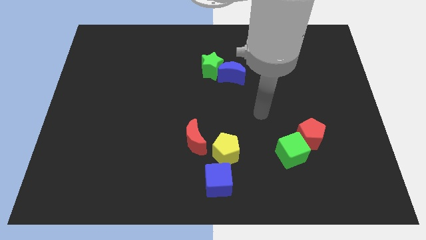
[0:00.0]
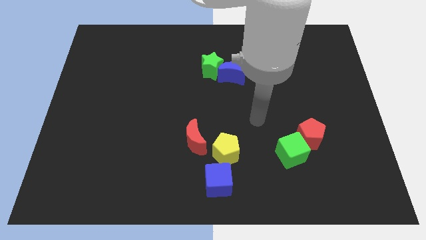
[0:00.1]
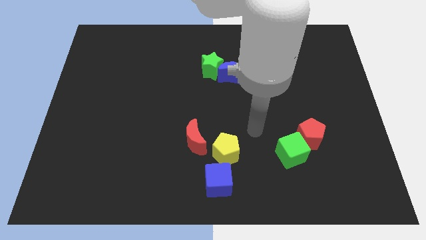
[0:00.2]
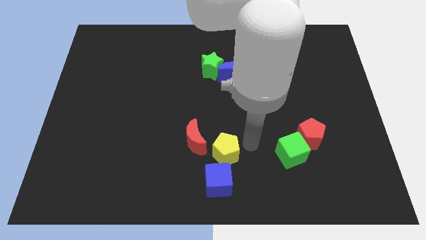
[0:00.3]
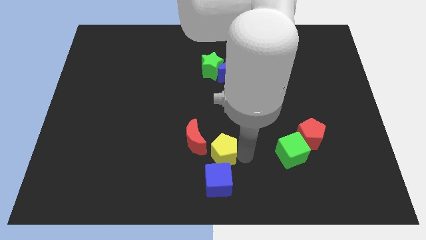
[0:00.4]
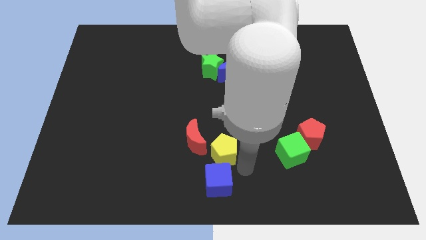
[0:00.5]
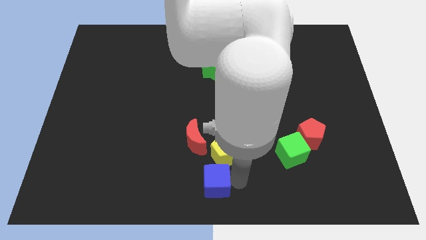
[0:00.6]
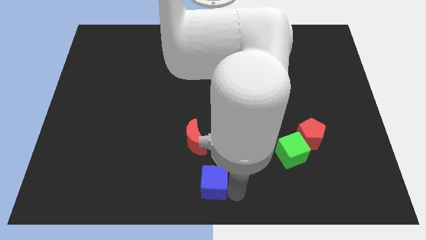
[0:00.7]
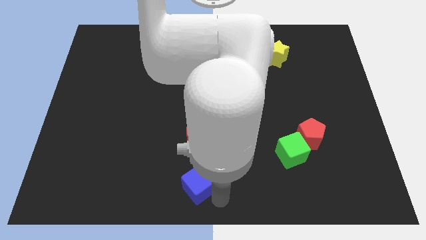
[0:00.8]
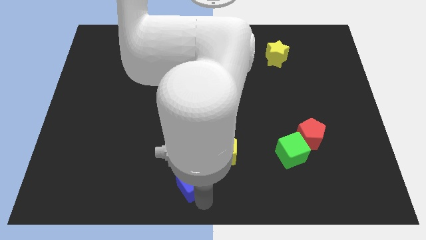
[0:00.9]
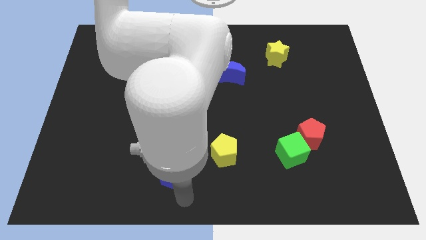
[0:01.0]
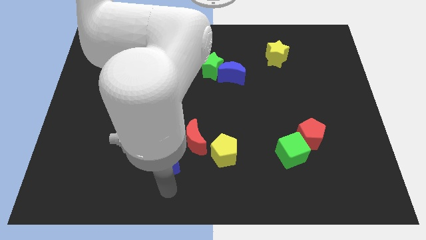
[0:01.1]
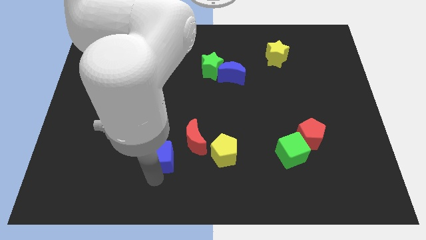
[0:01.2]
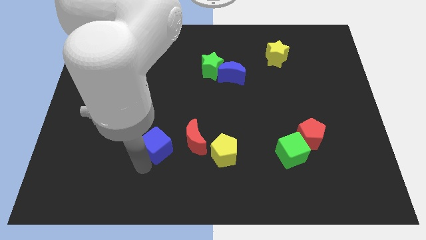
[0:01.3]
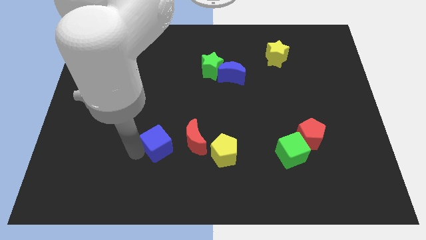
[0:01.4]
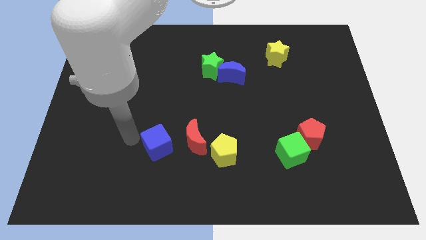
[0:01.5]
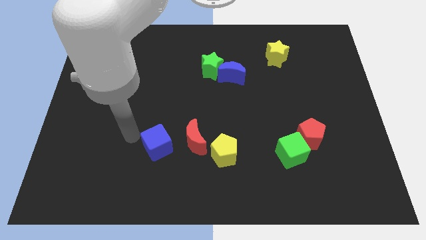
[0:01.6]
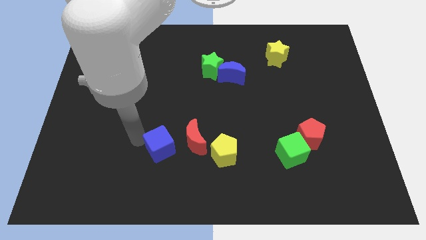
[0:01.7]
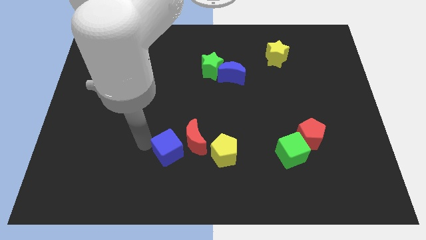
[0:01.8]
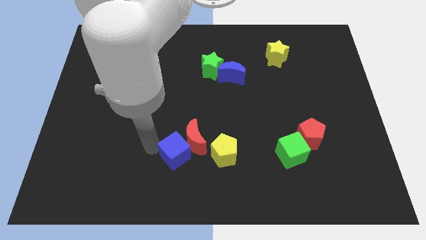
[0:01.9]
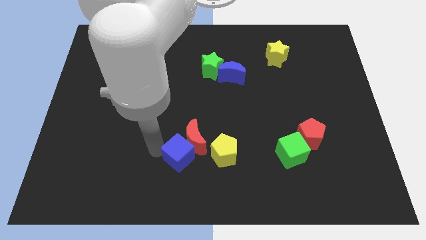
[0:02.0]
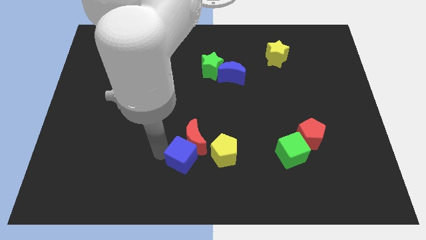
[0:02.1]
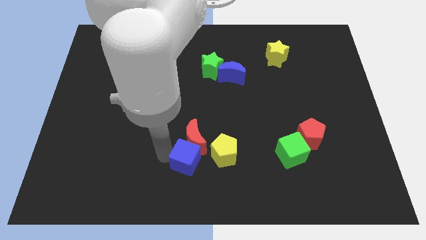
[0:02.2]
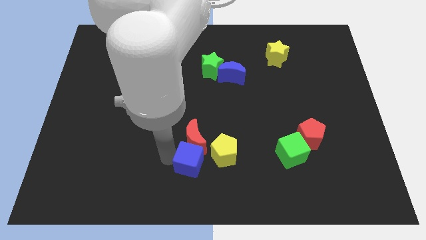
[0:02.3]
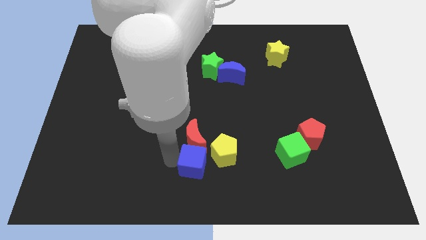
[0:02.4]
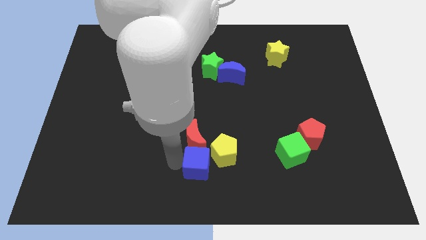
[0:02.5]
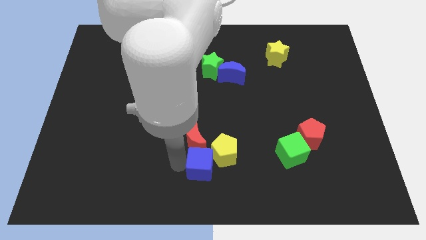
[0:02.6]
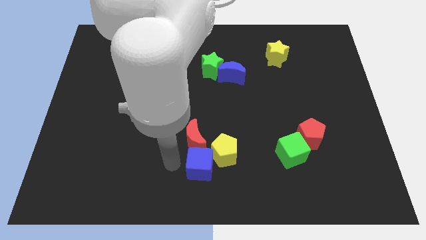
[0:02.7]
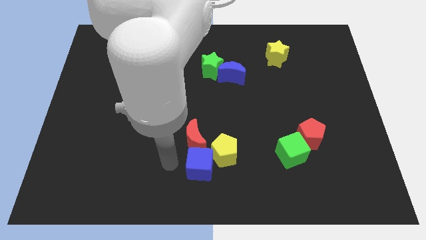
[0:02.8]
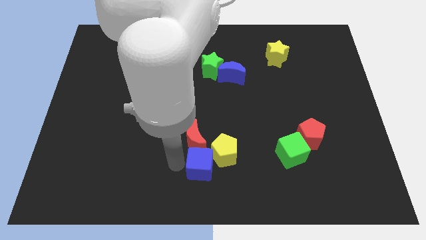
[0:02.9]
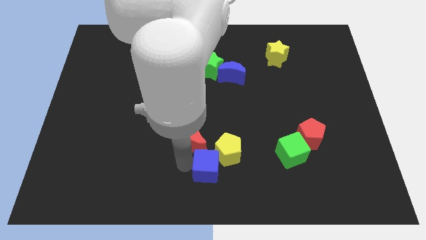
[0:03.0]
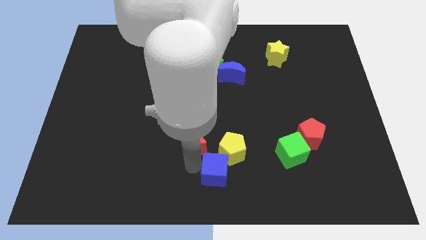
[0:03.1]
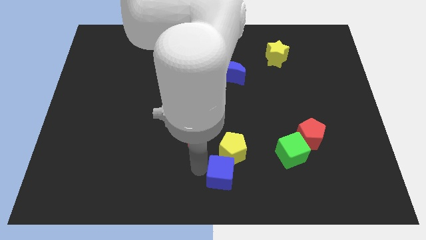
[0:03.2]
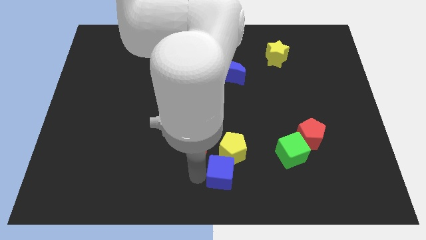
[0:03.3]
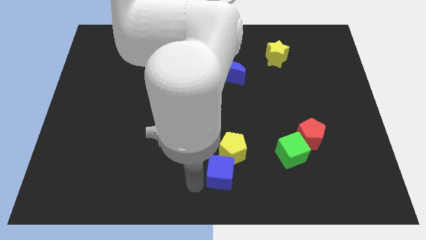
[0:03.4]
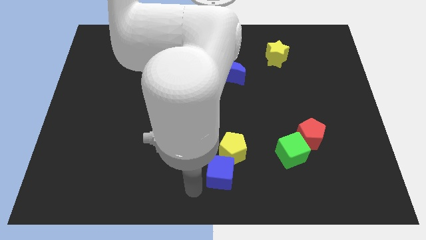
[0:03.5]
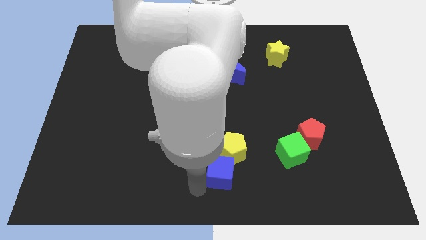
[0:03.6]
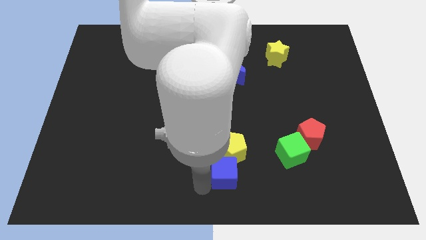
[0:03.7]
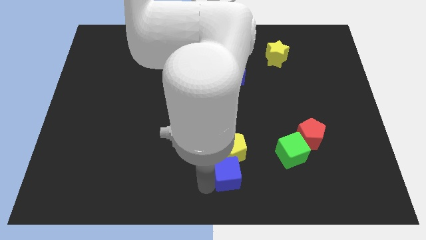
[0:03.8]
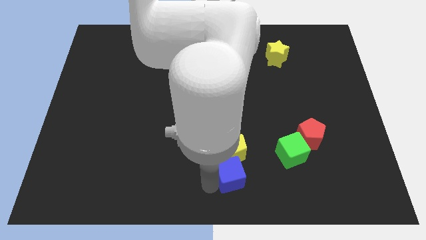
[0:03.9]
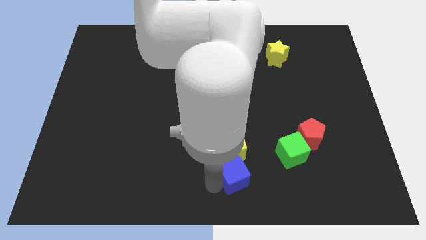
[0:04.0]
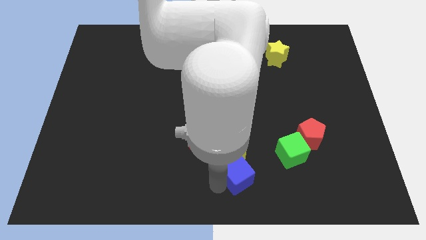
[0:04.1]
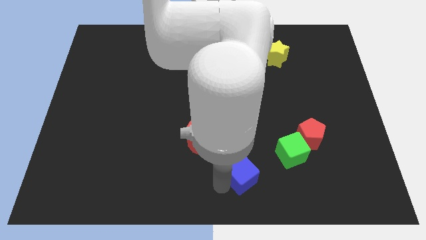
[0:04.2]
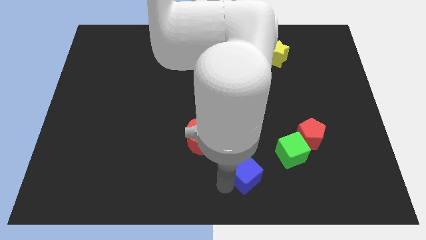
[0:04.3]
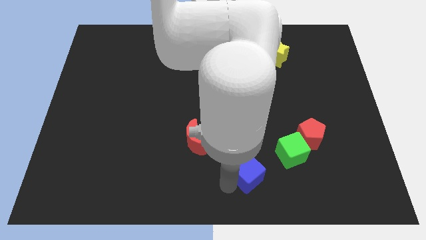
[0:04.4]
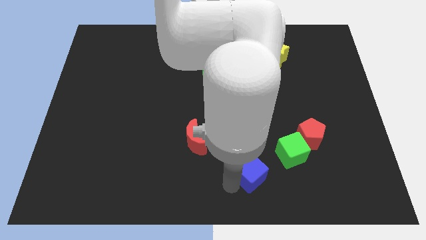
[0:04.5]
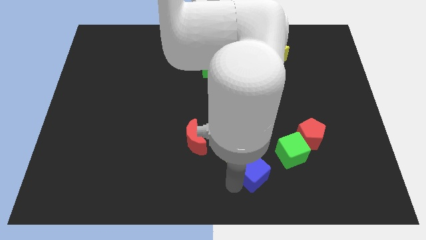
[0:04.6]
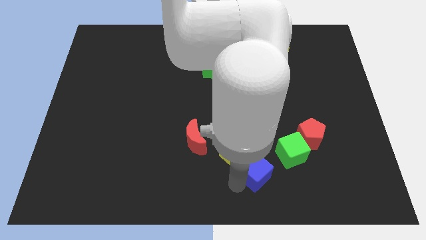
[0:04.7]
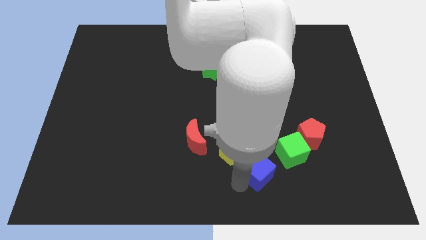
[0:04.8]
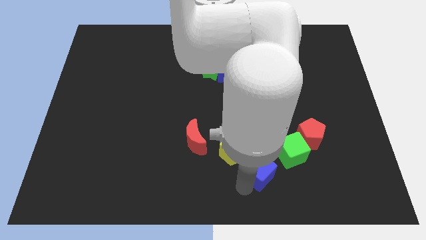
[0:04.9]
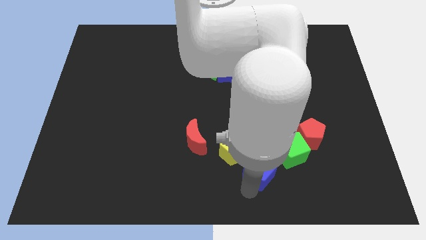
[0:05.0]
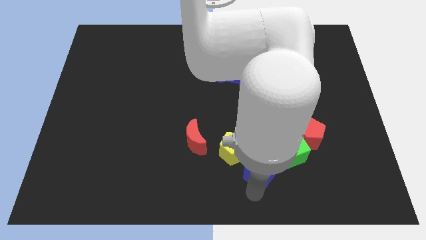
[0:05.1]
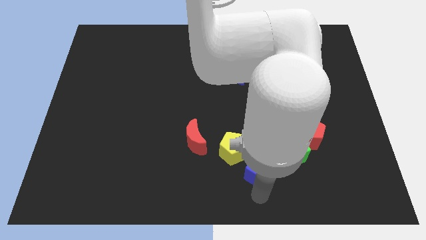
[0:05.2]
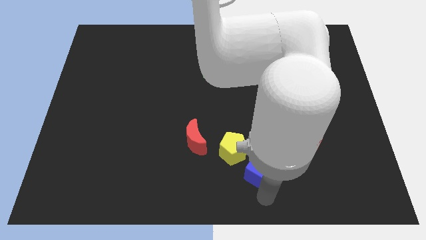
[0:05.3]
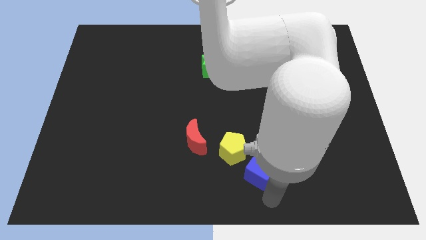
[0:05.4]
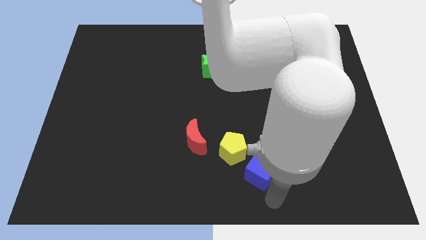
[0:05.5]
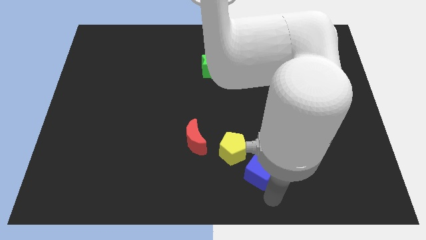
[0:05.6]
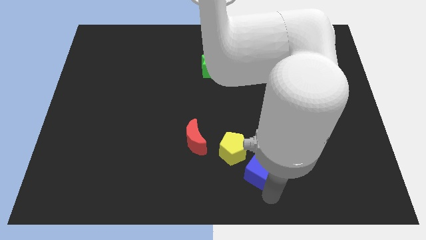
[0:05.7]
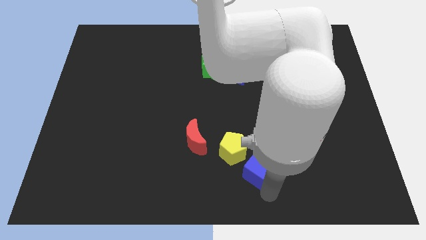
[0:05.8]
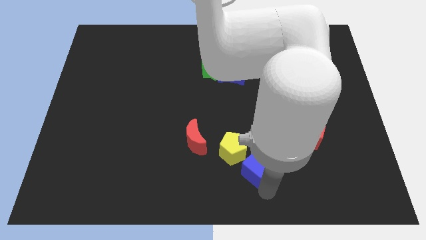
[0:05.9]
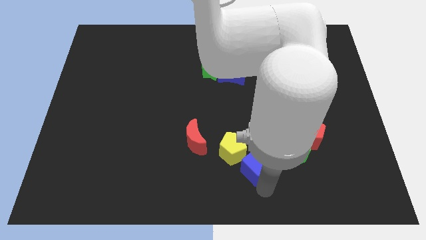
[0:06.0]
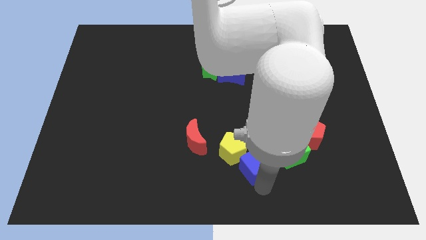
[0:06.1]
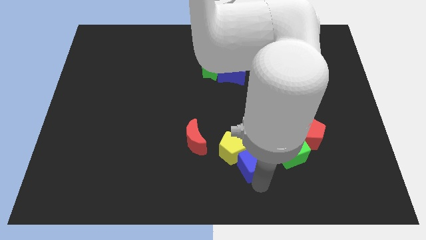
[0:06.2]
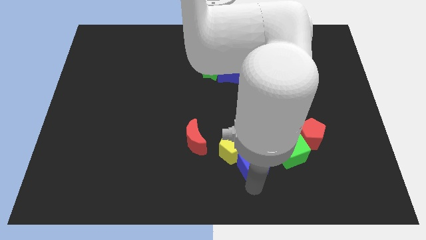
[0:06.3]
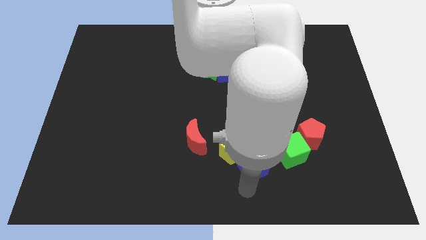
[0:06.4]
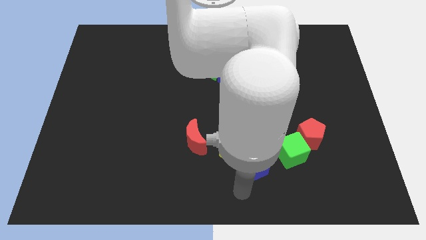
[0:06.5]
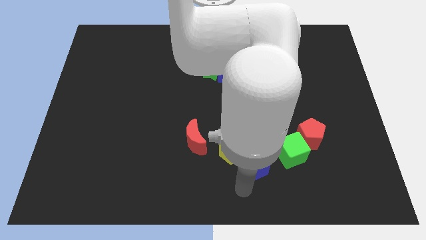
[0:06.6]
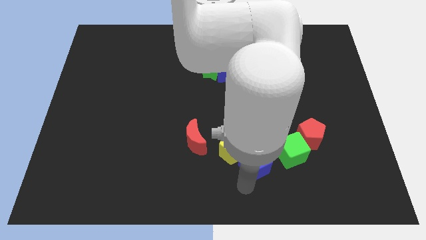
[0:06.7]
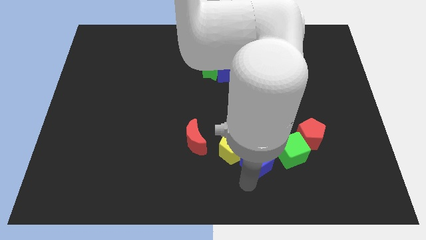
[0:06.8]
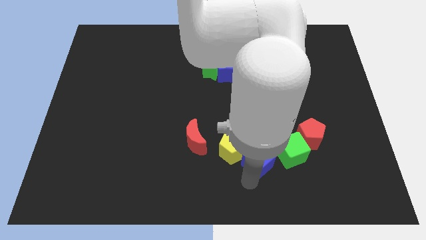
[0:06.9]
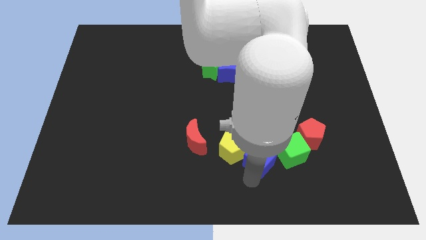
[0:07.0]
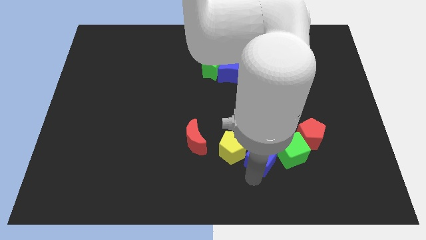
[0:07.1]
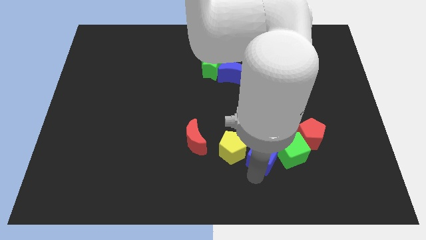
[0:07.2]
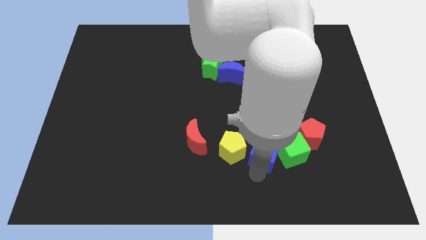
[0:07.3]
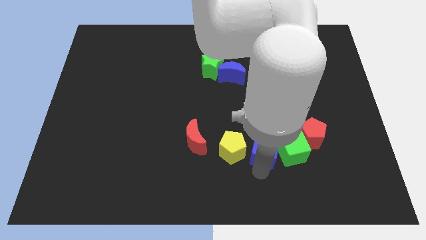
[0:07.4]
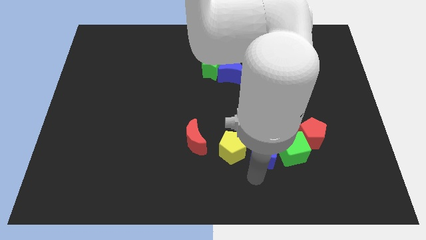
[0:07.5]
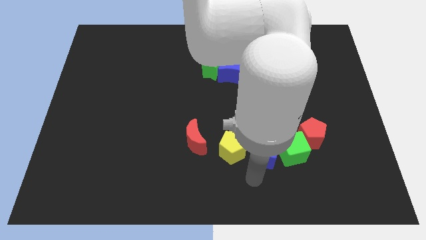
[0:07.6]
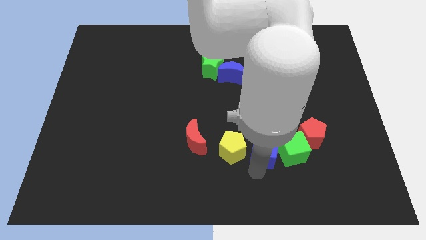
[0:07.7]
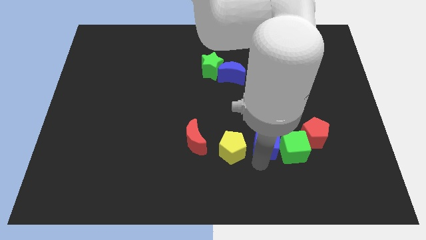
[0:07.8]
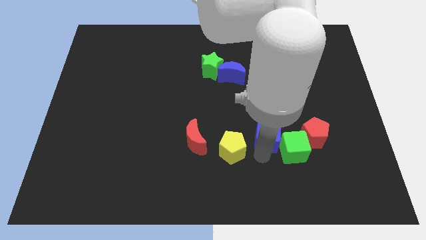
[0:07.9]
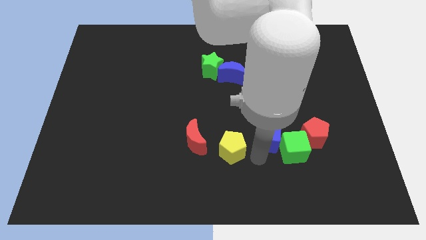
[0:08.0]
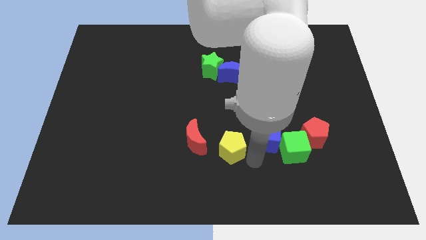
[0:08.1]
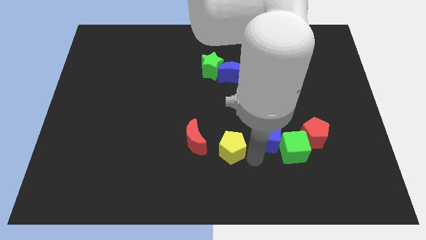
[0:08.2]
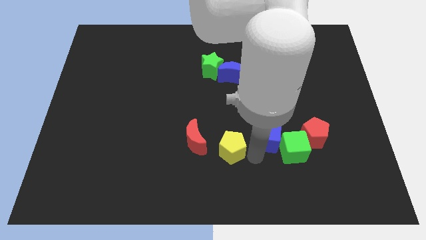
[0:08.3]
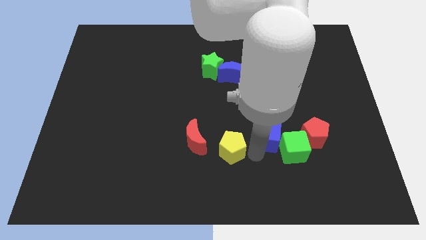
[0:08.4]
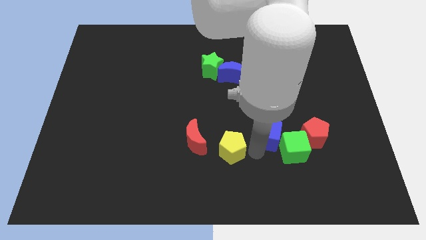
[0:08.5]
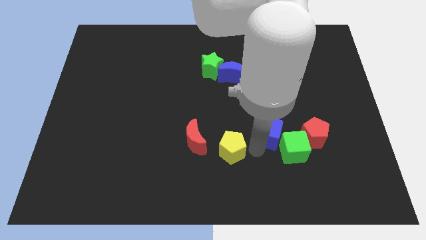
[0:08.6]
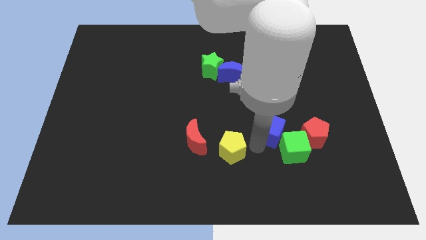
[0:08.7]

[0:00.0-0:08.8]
put the blue cube to the top of the green cube
